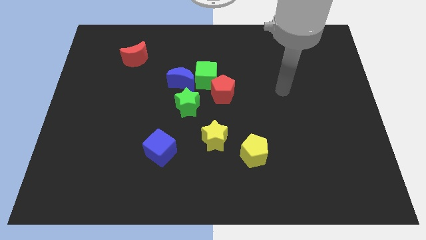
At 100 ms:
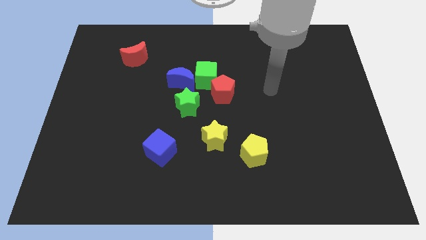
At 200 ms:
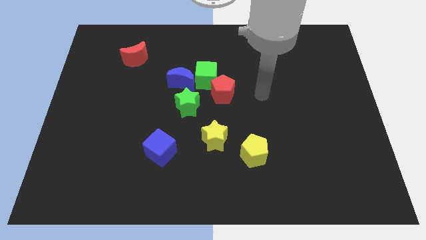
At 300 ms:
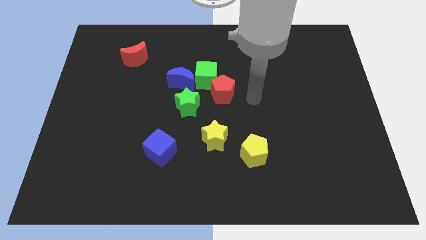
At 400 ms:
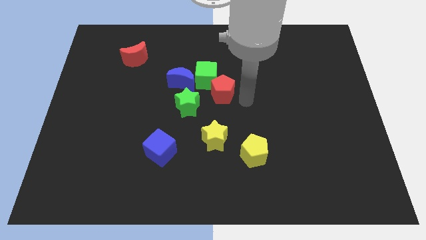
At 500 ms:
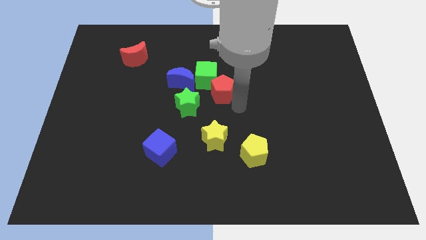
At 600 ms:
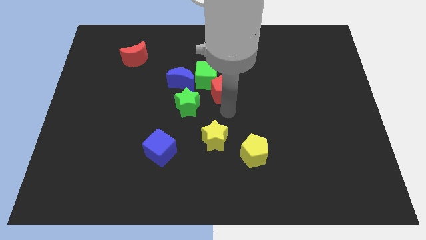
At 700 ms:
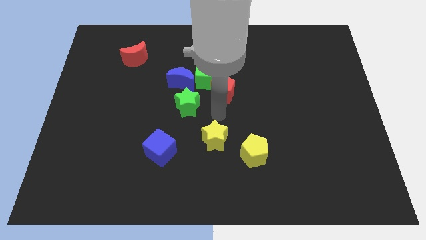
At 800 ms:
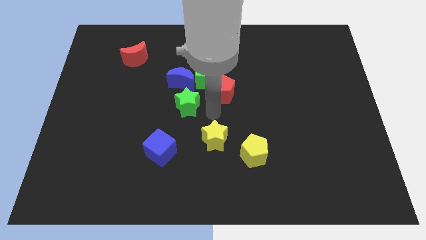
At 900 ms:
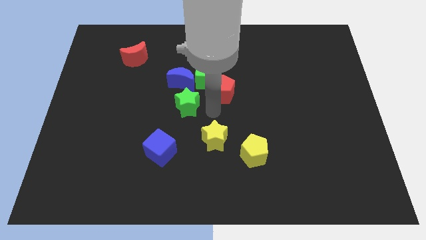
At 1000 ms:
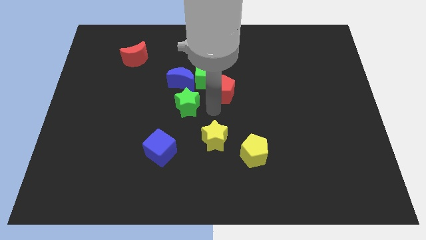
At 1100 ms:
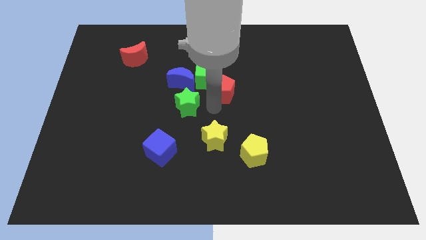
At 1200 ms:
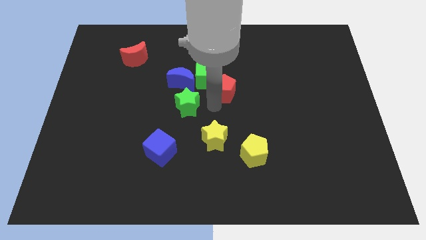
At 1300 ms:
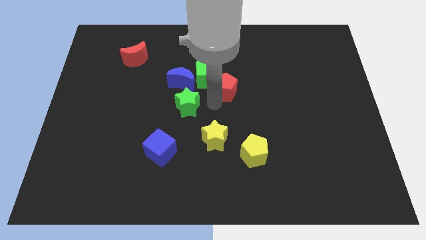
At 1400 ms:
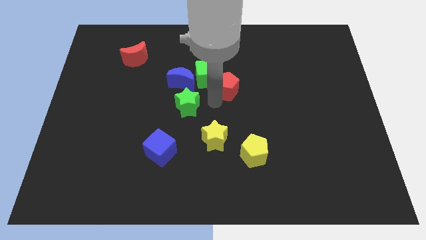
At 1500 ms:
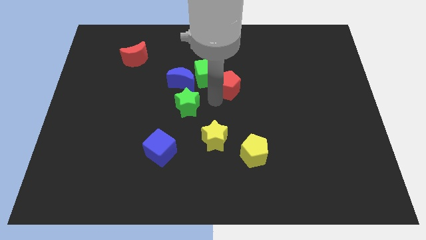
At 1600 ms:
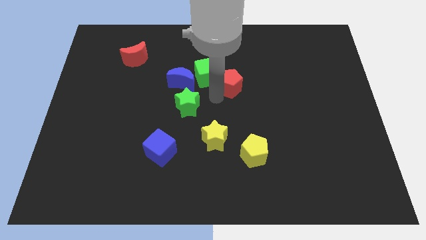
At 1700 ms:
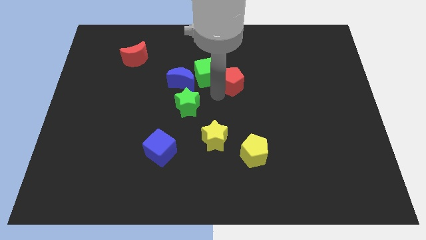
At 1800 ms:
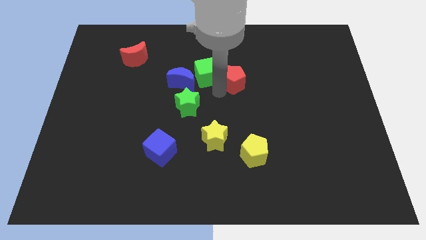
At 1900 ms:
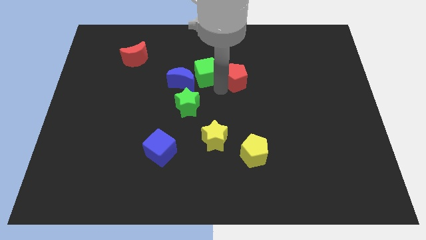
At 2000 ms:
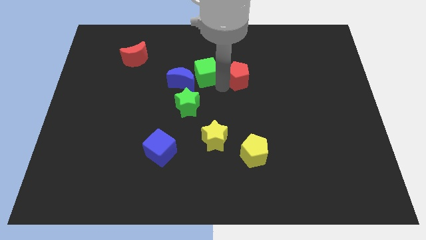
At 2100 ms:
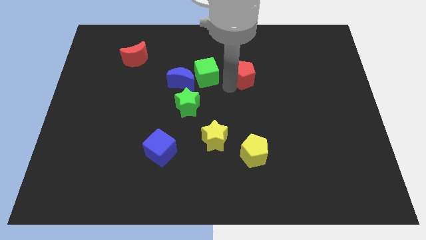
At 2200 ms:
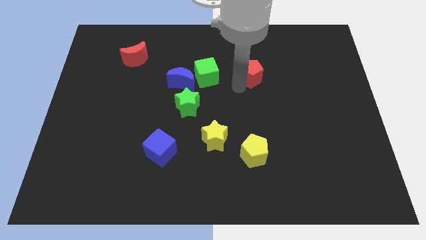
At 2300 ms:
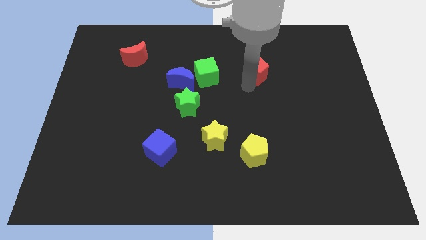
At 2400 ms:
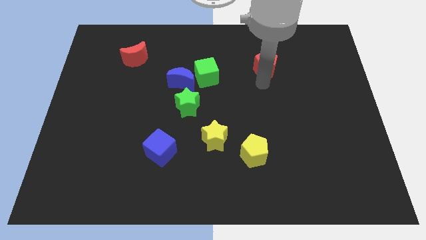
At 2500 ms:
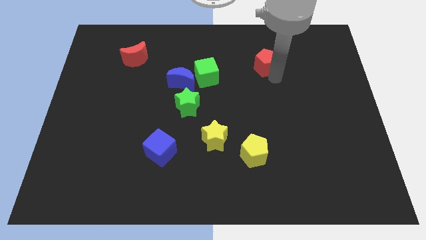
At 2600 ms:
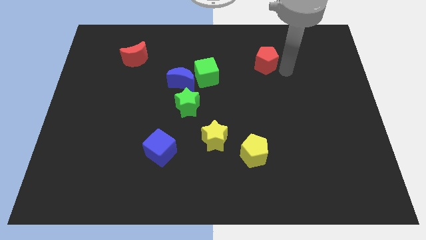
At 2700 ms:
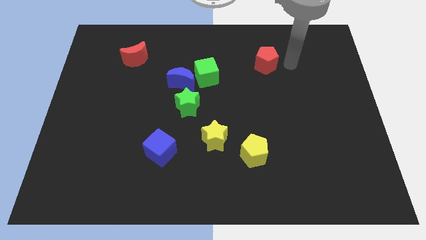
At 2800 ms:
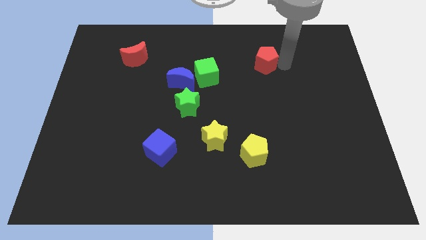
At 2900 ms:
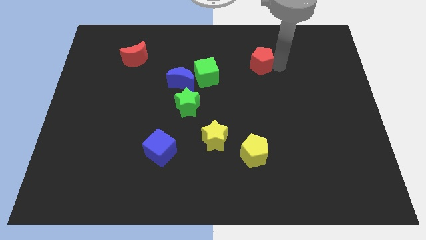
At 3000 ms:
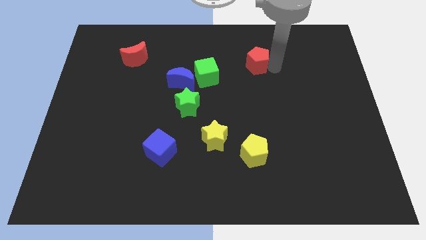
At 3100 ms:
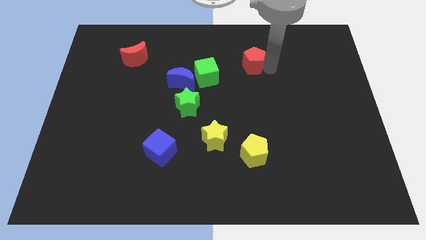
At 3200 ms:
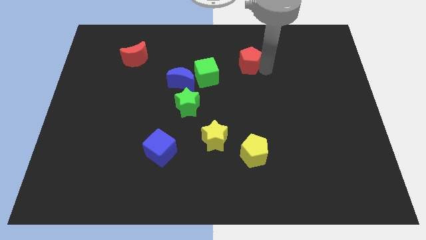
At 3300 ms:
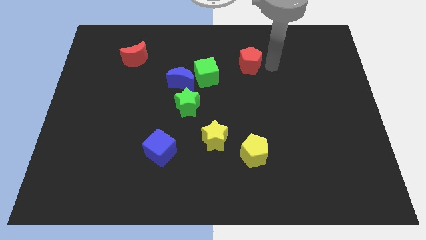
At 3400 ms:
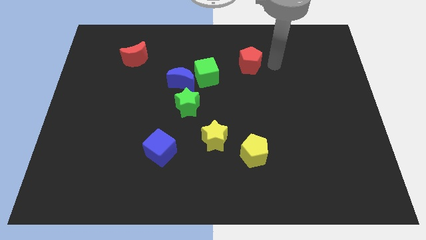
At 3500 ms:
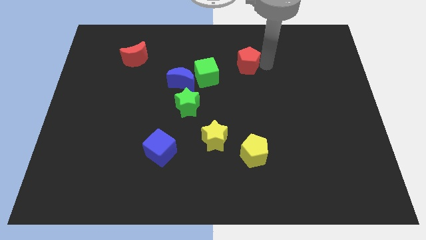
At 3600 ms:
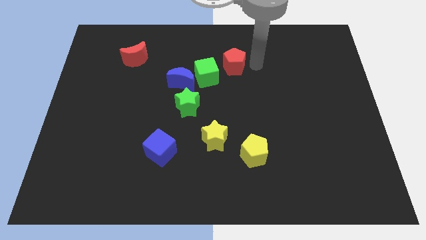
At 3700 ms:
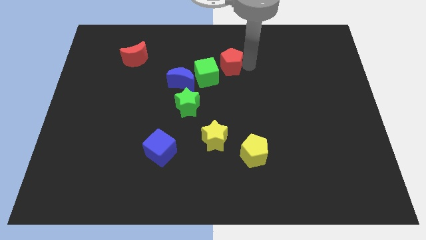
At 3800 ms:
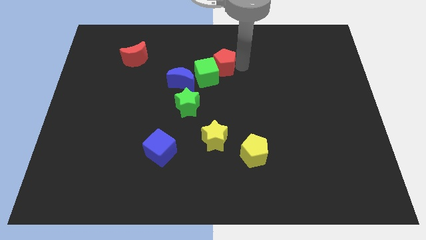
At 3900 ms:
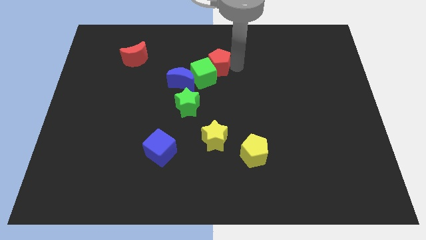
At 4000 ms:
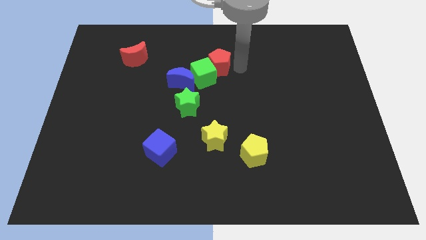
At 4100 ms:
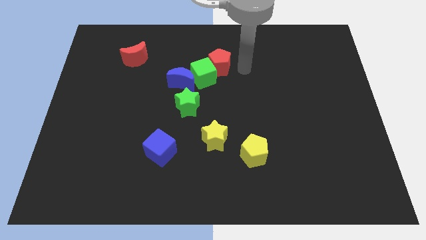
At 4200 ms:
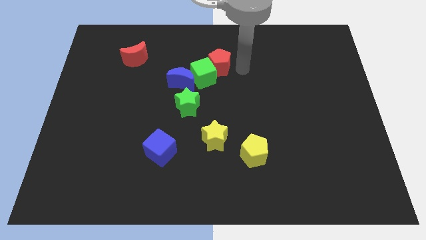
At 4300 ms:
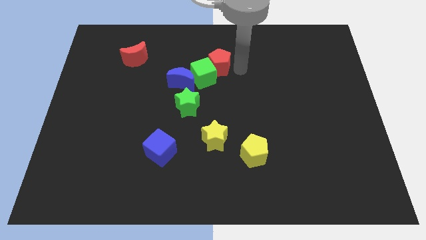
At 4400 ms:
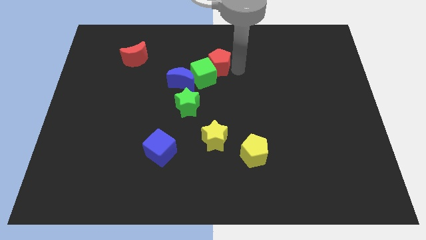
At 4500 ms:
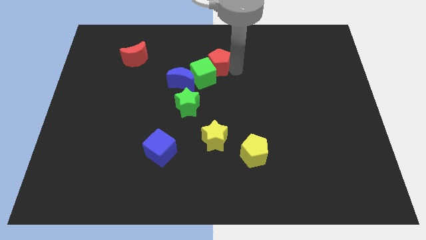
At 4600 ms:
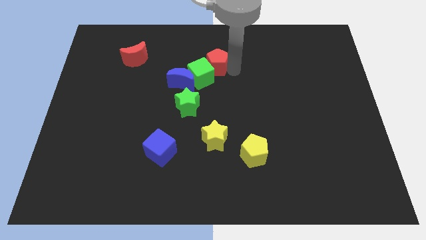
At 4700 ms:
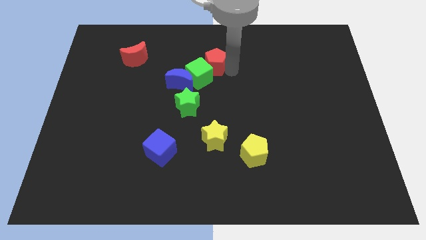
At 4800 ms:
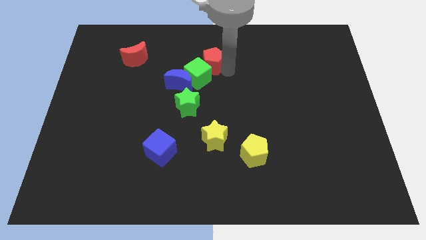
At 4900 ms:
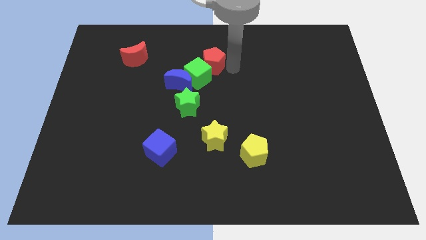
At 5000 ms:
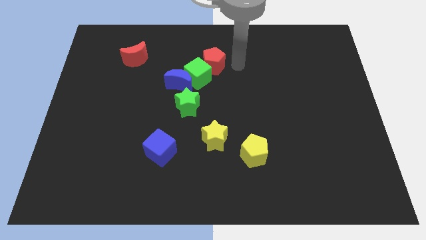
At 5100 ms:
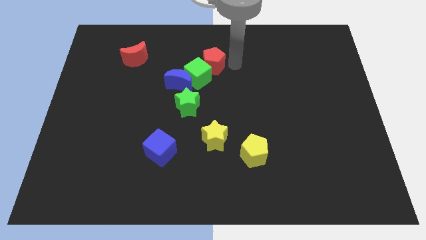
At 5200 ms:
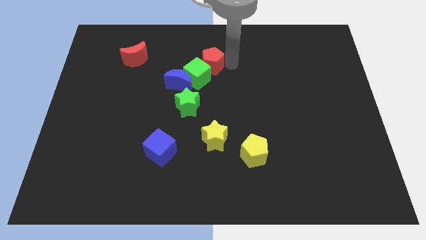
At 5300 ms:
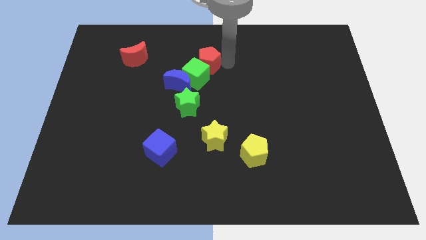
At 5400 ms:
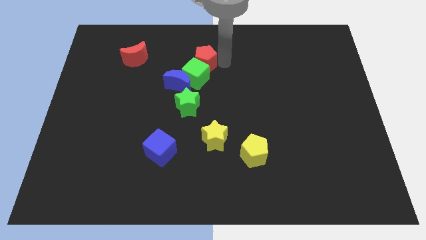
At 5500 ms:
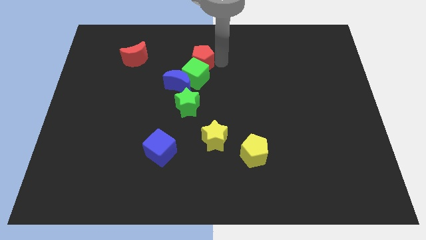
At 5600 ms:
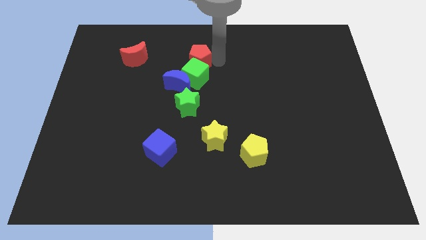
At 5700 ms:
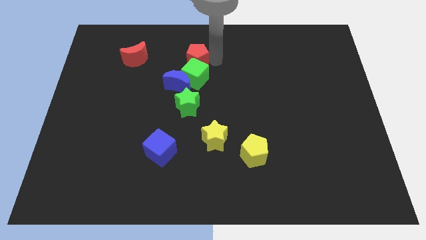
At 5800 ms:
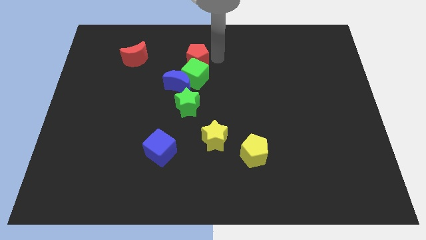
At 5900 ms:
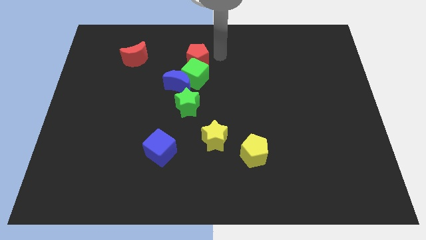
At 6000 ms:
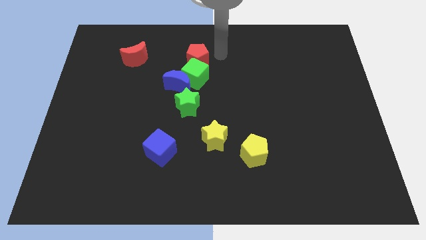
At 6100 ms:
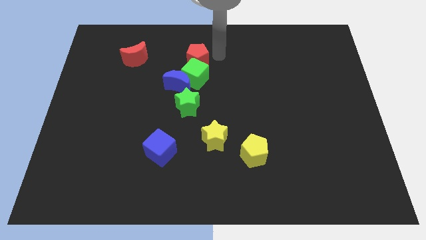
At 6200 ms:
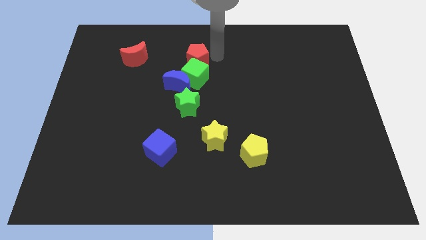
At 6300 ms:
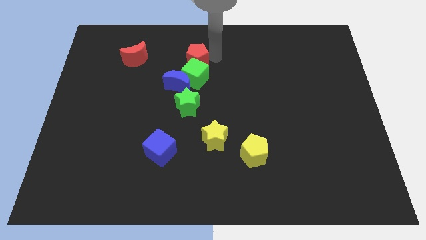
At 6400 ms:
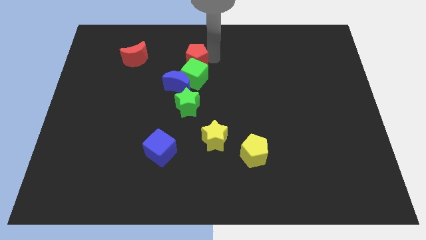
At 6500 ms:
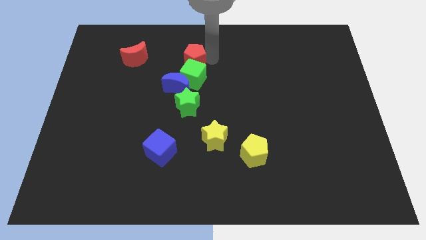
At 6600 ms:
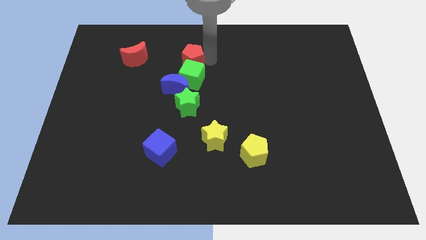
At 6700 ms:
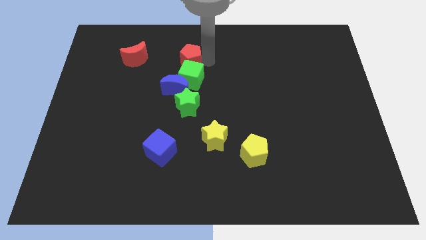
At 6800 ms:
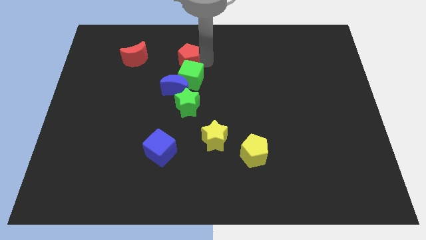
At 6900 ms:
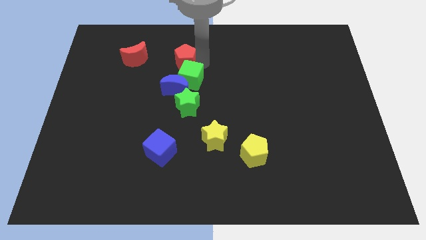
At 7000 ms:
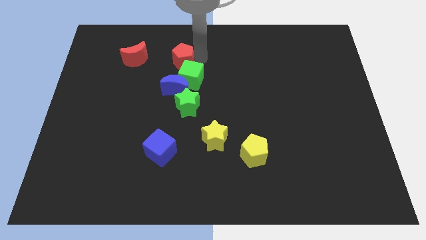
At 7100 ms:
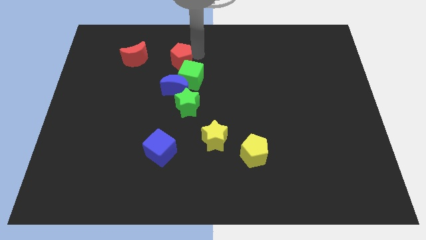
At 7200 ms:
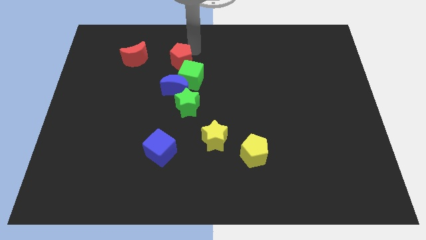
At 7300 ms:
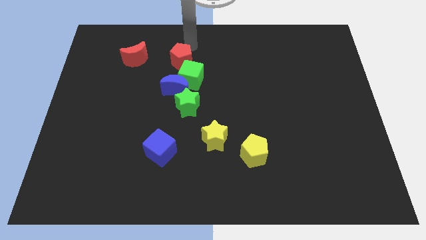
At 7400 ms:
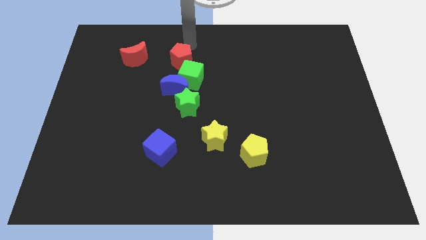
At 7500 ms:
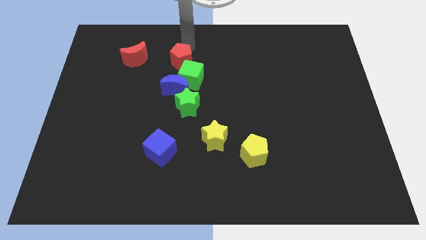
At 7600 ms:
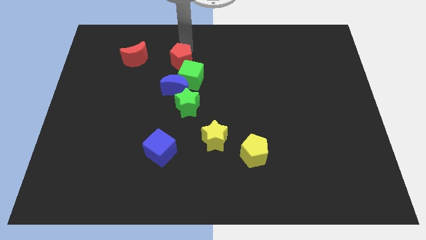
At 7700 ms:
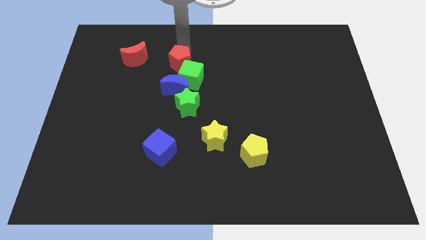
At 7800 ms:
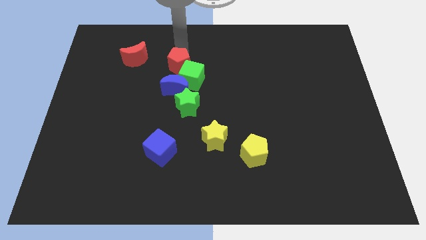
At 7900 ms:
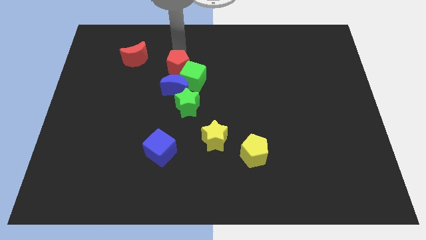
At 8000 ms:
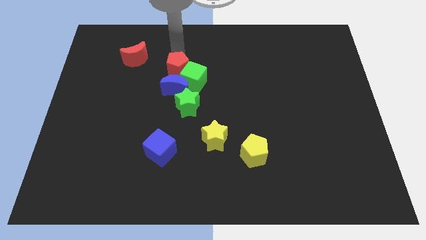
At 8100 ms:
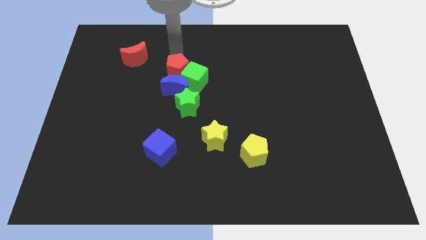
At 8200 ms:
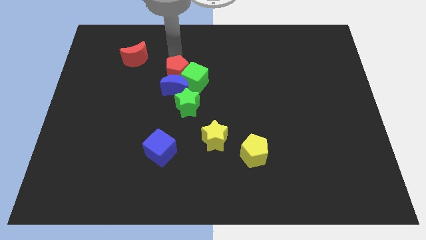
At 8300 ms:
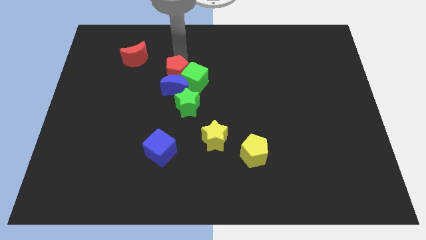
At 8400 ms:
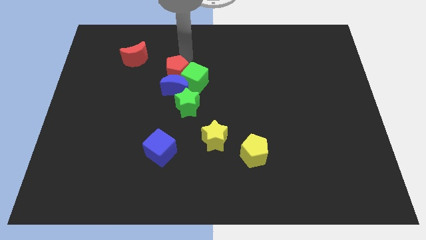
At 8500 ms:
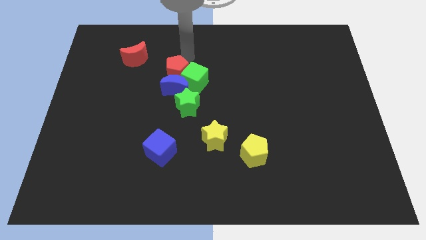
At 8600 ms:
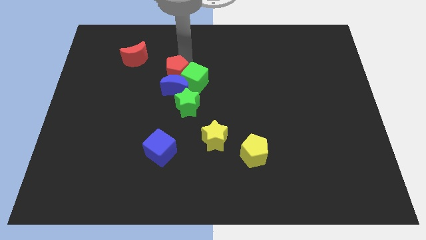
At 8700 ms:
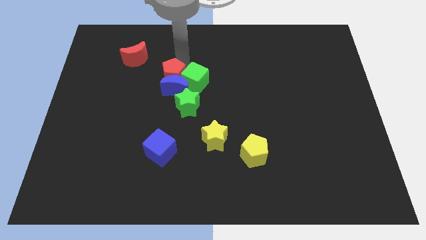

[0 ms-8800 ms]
put the red pentagon to the top left of the green star
